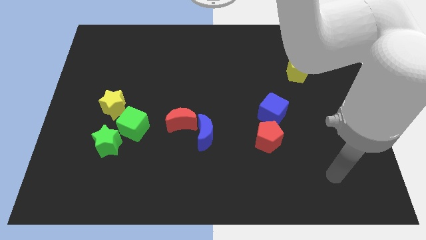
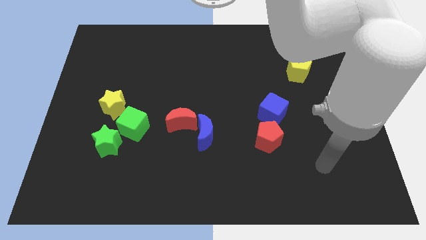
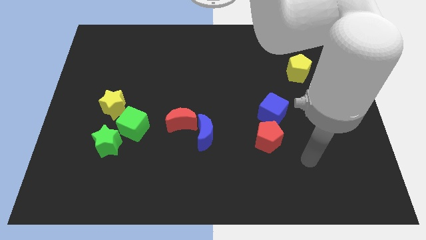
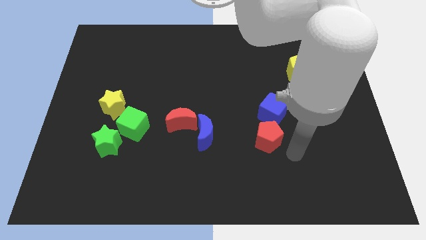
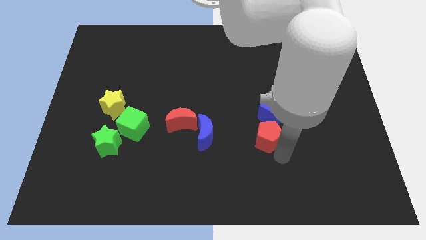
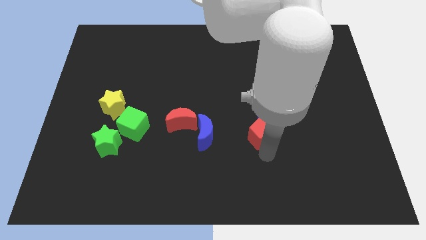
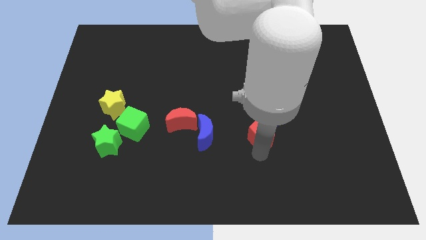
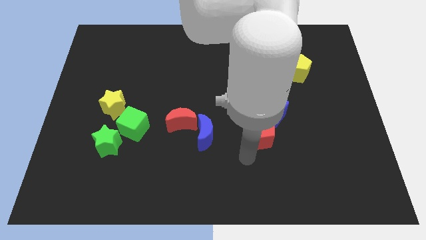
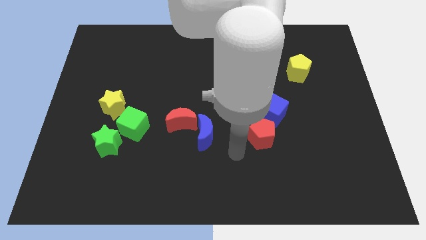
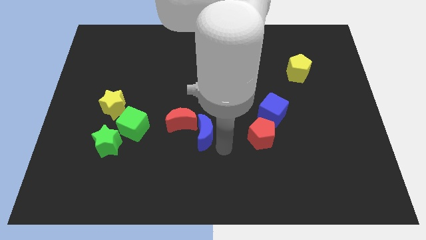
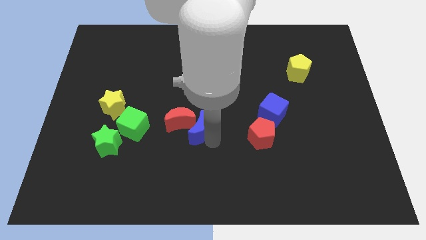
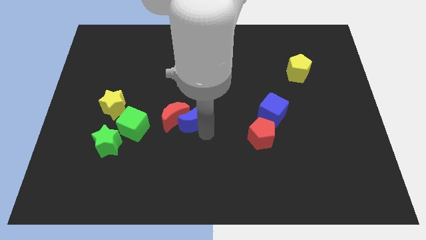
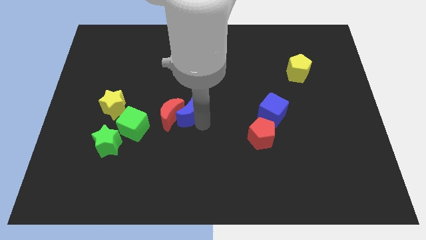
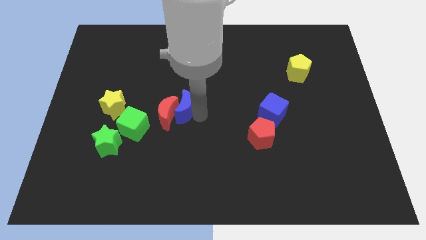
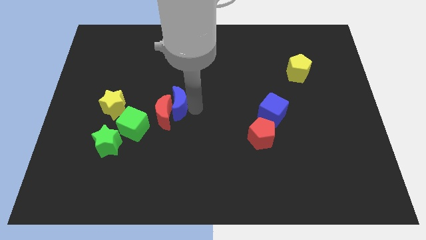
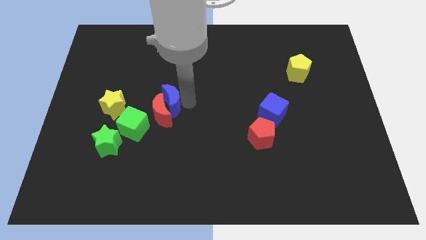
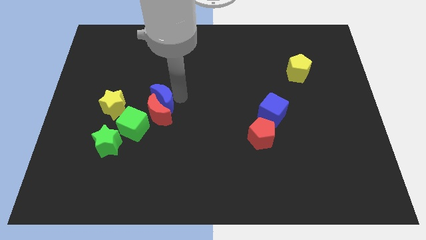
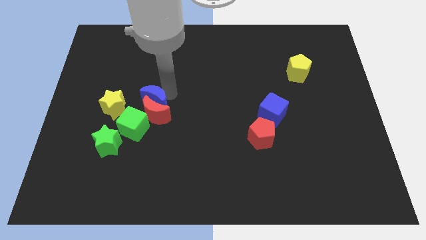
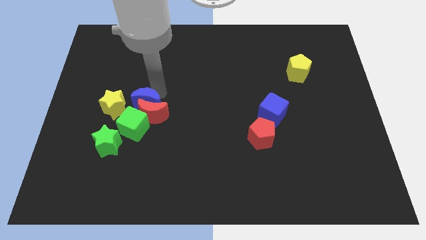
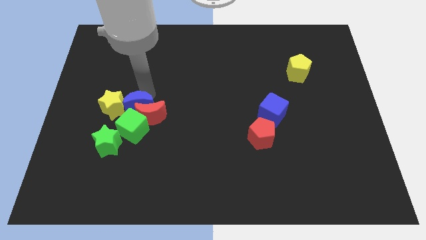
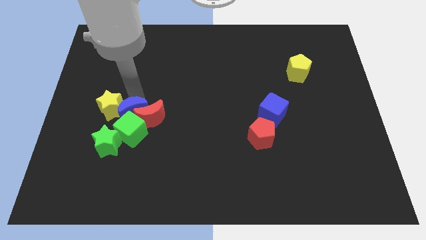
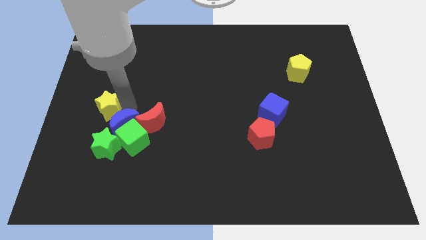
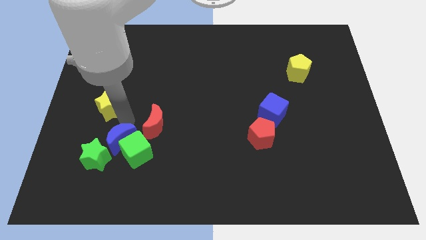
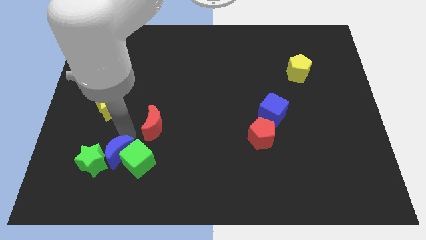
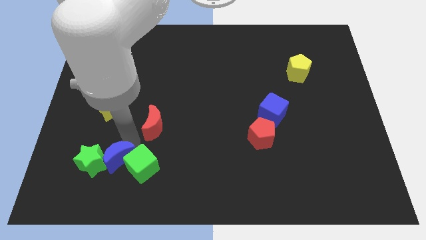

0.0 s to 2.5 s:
pull the red moon apart from the blue moon

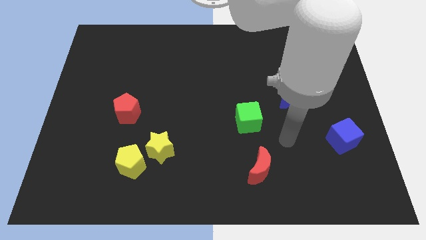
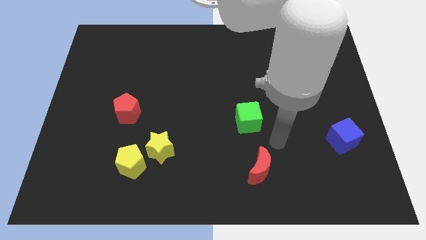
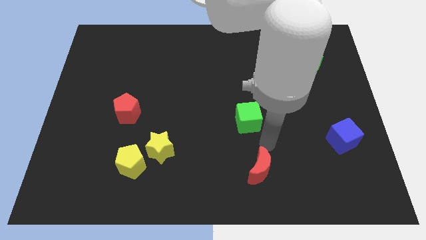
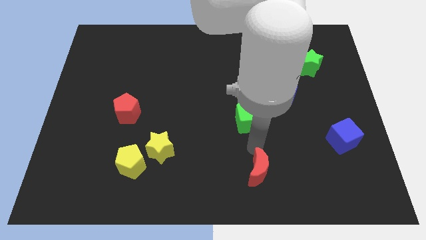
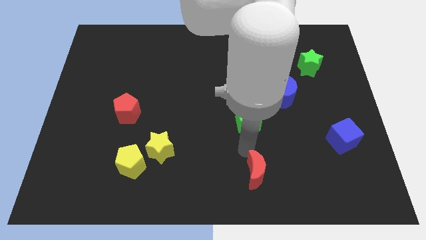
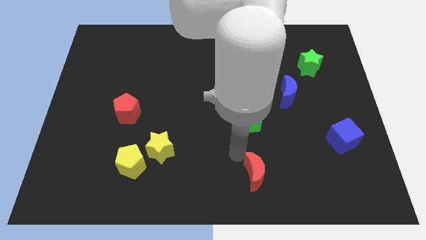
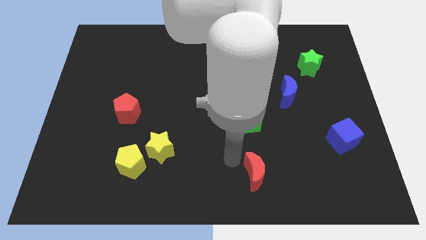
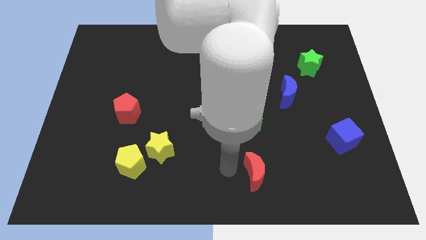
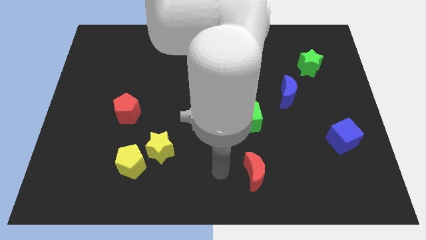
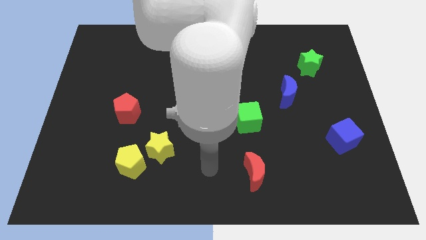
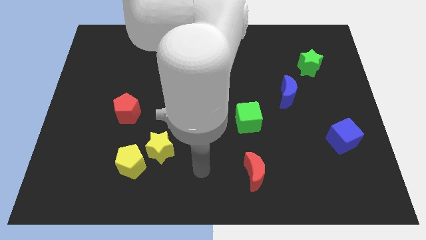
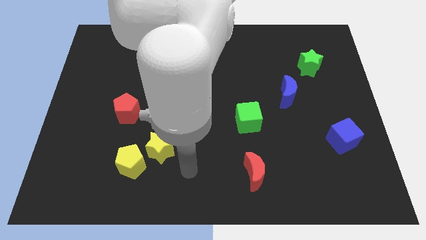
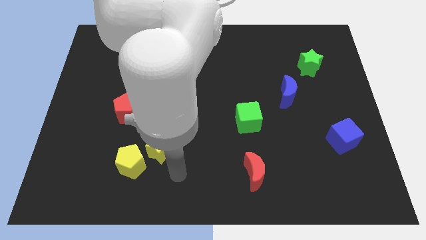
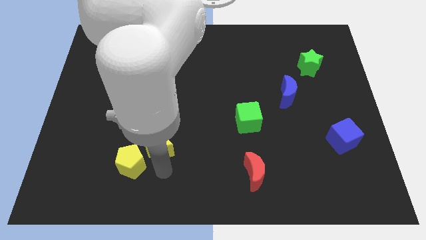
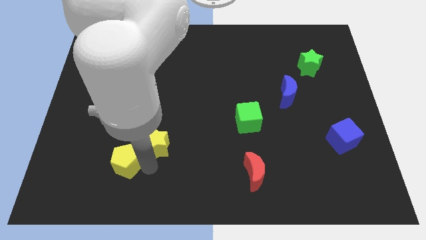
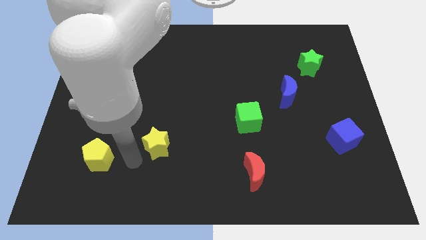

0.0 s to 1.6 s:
pull the yellow star apart from the yellow pentagon

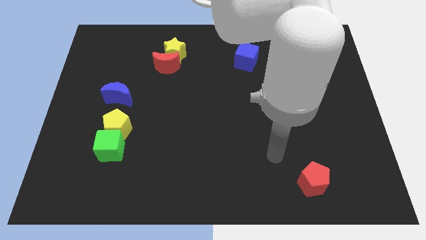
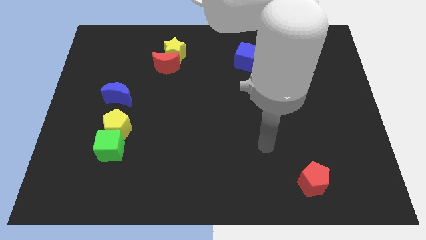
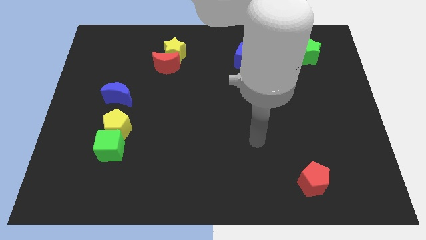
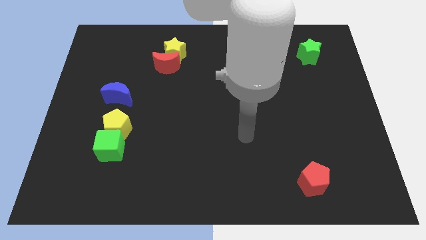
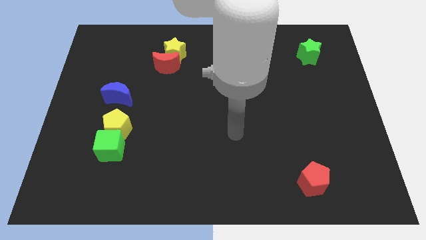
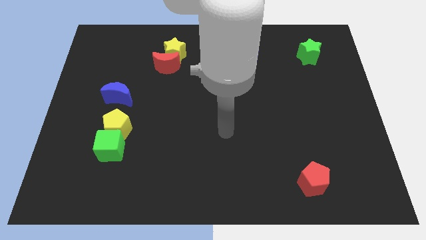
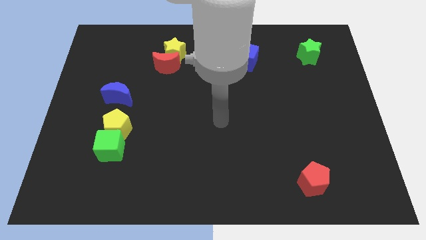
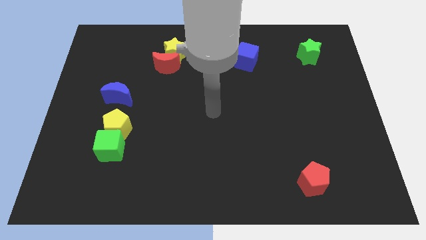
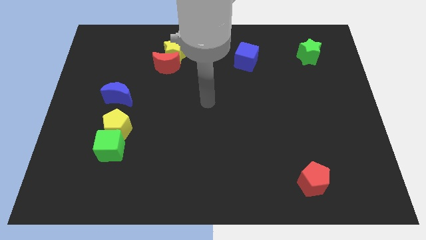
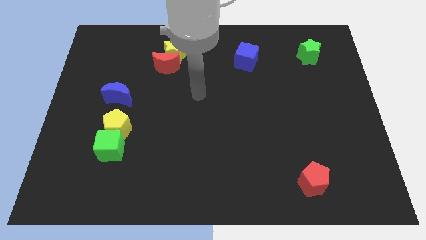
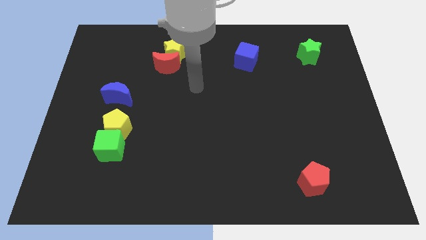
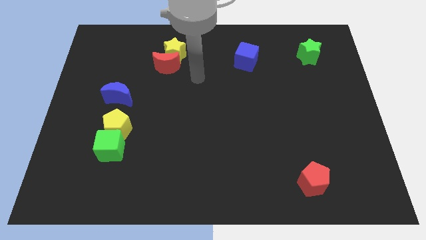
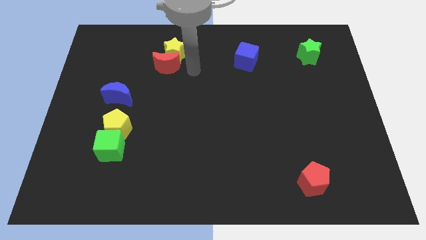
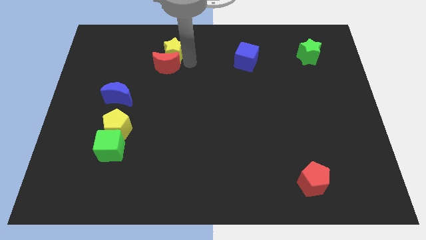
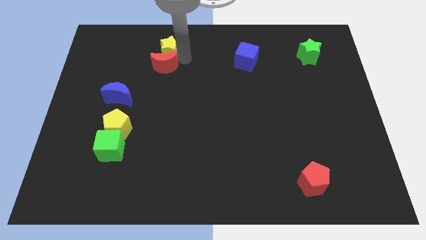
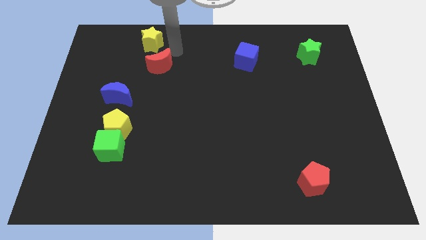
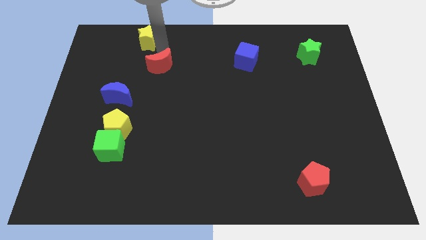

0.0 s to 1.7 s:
move the red moon away from the yellow star

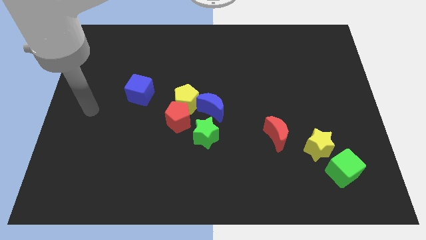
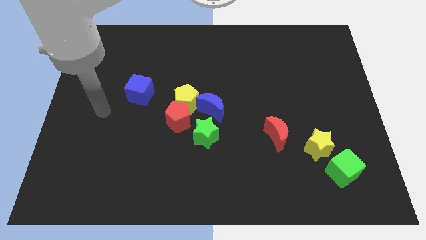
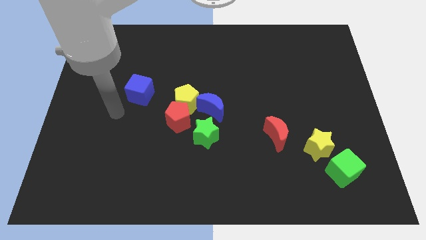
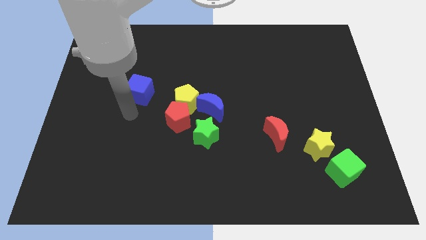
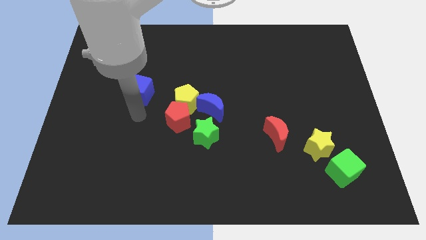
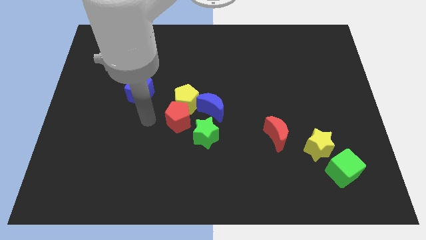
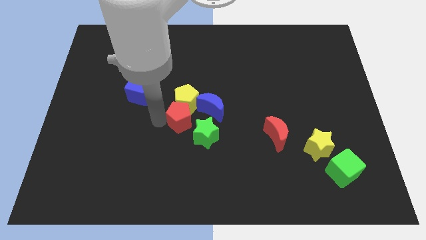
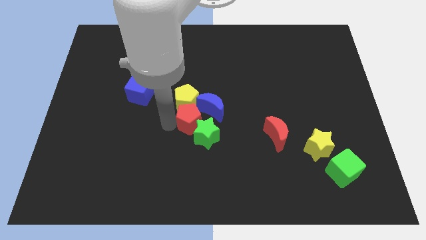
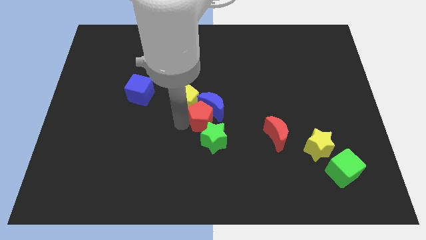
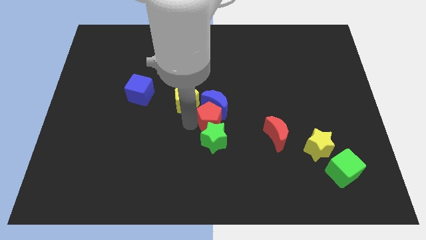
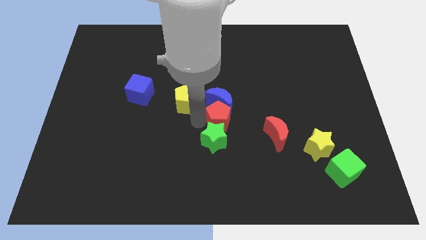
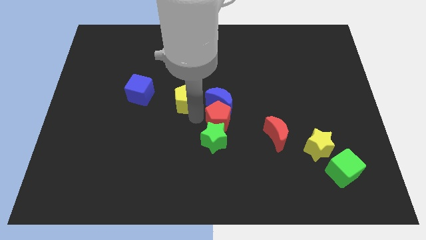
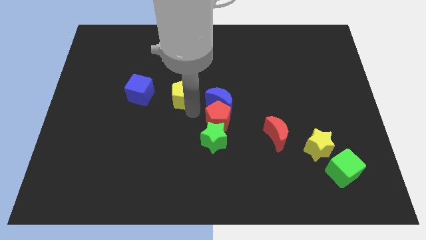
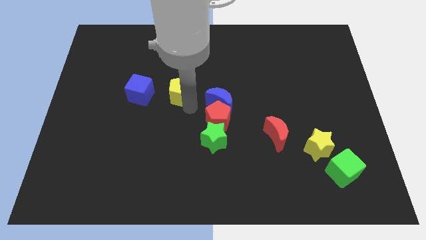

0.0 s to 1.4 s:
pull the yellow pentagon apart from the red pentagon and blue moon

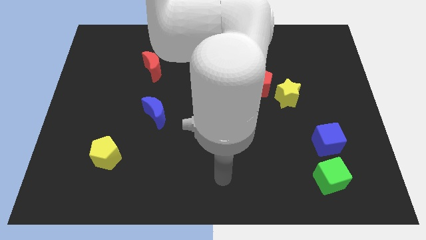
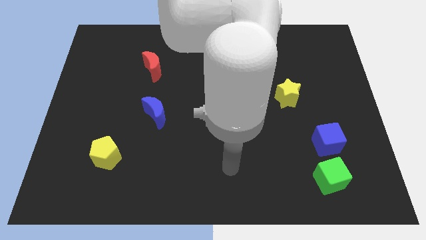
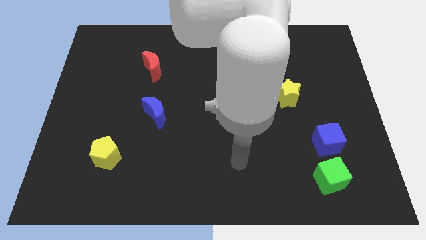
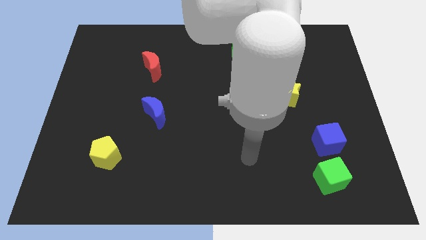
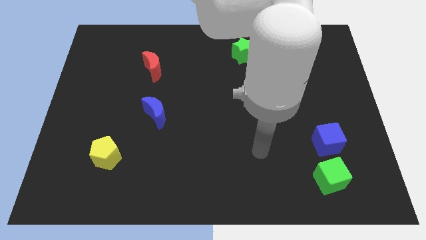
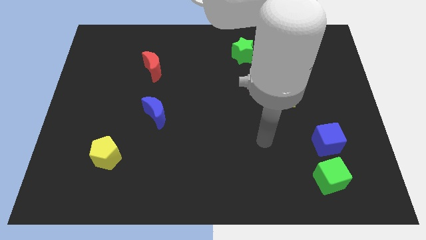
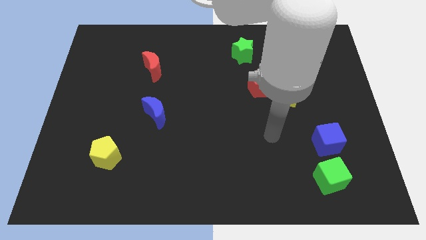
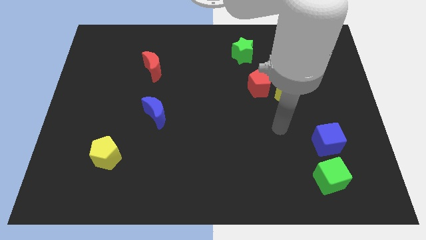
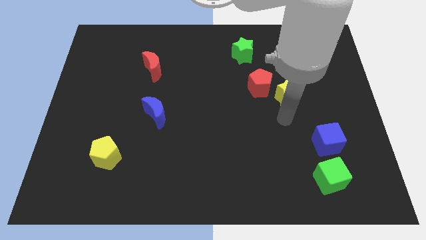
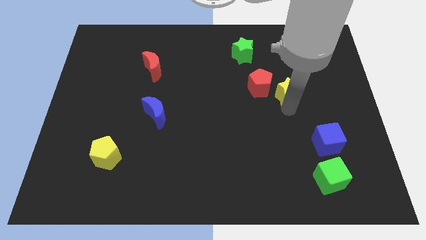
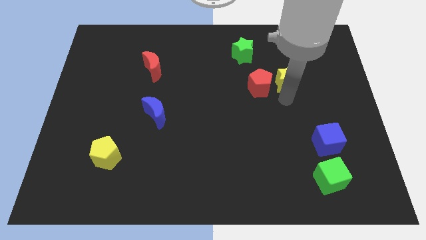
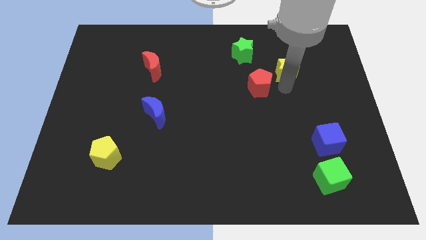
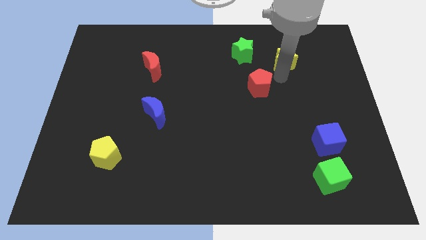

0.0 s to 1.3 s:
separate the red pentagon from the yellow star

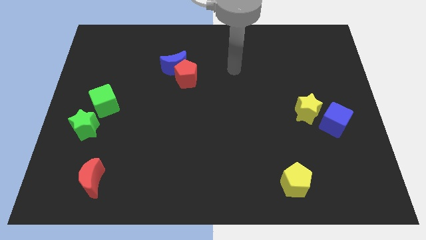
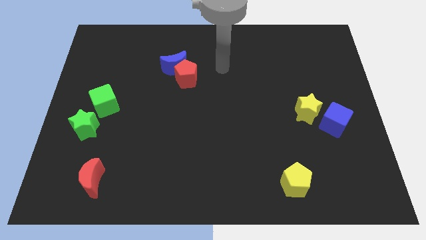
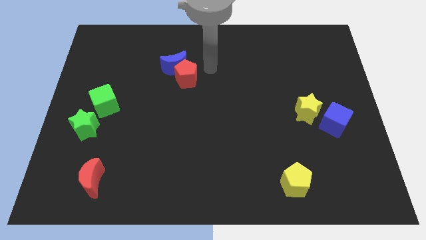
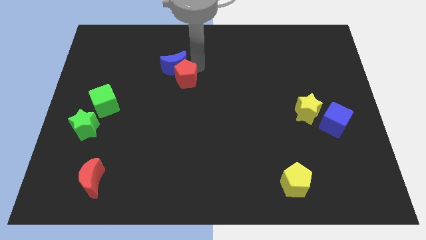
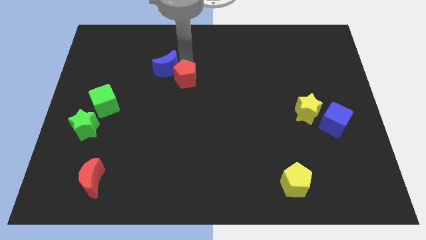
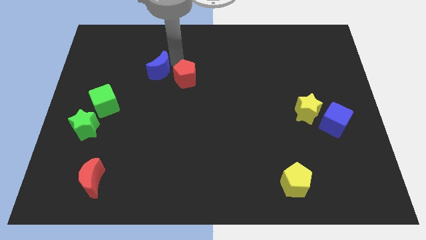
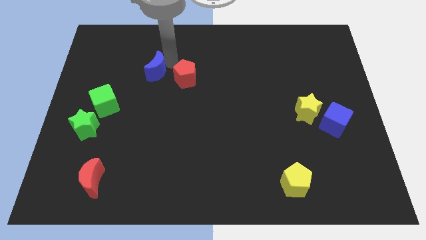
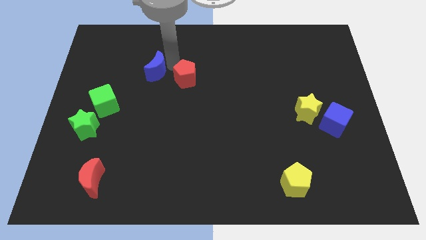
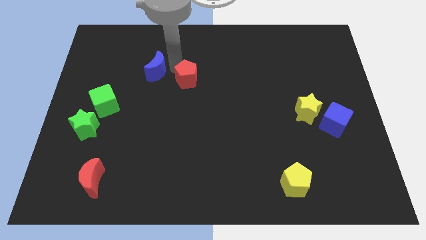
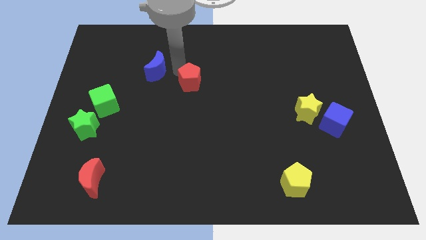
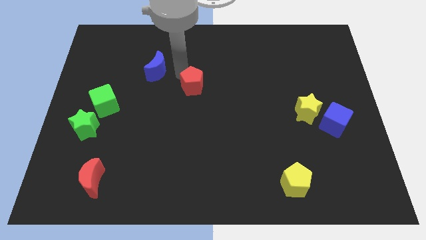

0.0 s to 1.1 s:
separate the red pentagon from the blue moon
